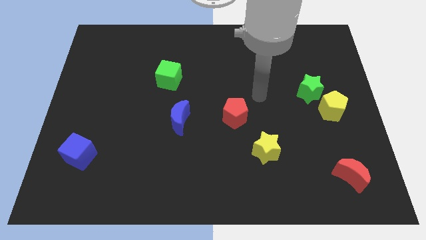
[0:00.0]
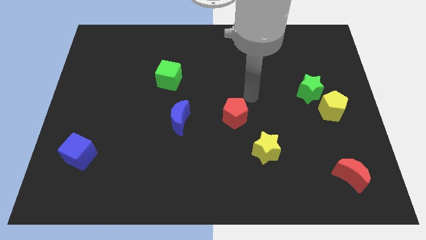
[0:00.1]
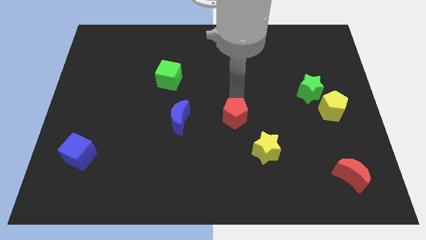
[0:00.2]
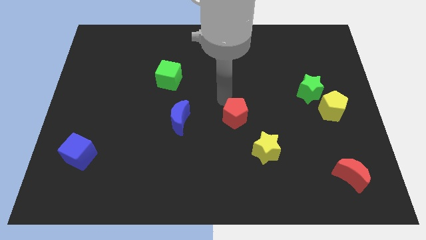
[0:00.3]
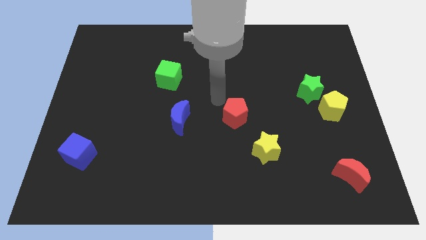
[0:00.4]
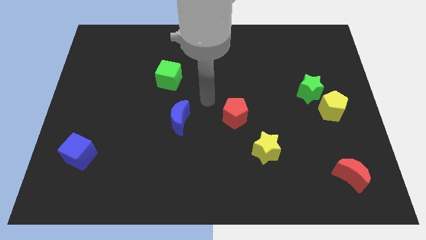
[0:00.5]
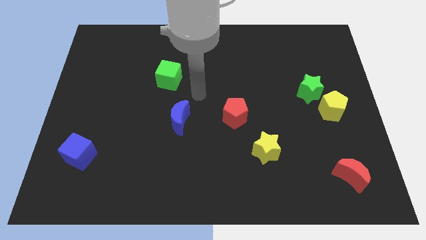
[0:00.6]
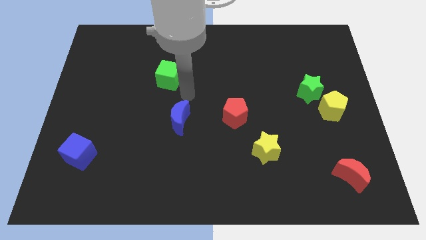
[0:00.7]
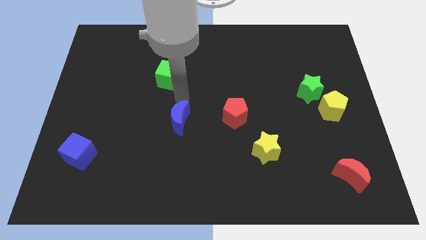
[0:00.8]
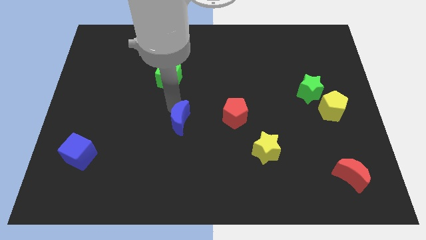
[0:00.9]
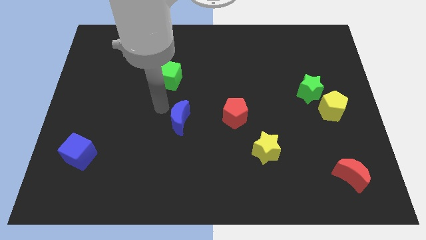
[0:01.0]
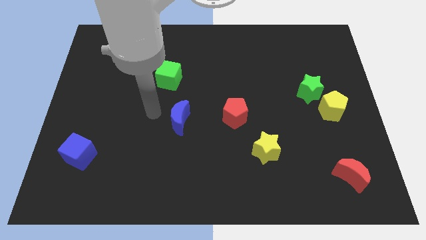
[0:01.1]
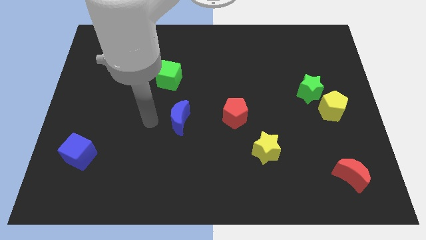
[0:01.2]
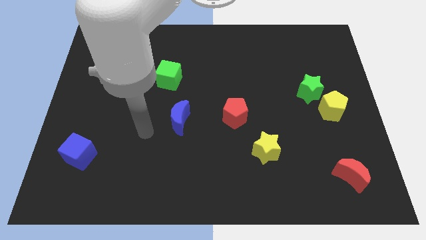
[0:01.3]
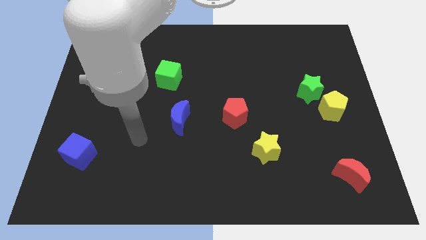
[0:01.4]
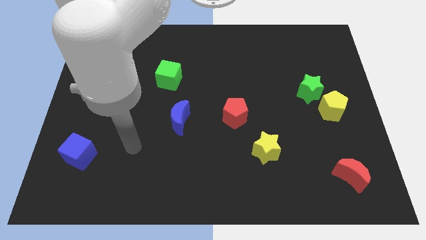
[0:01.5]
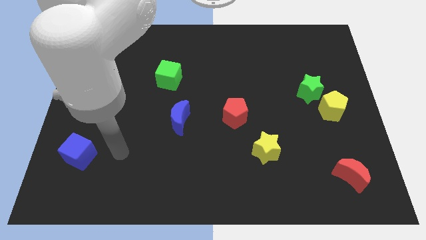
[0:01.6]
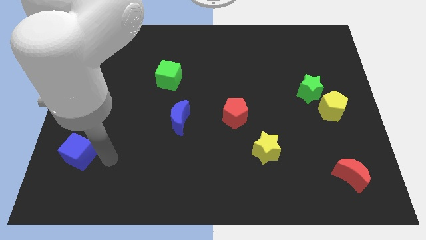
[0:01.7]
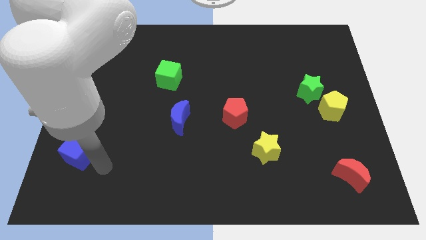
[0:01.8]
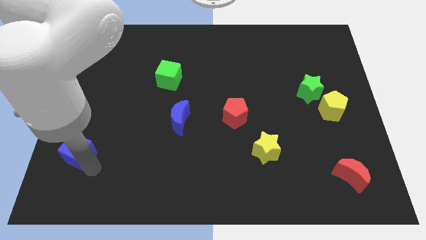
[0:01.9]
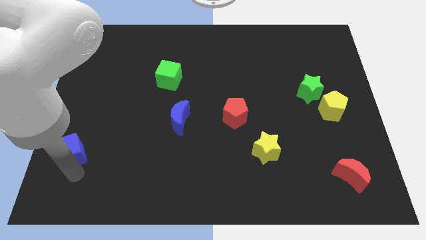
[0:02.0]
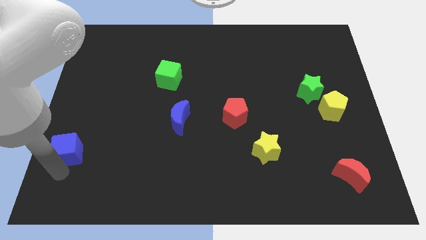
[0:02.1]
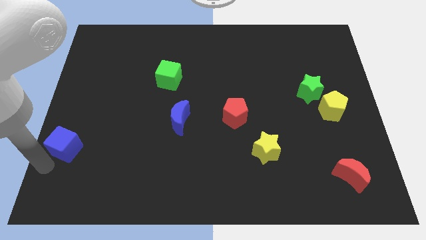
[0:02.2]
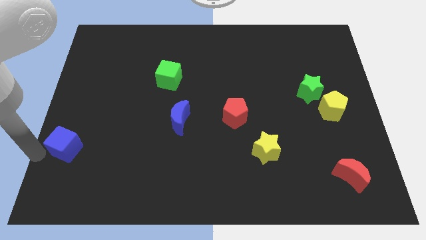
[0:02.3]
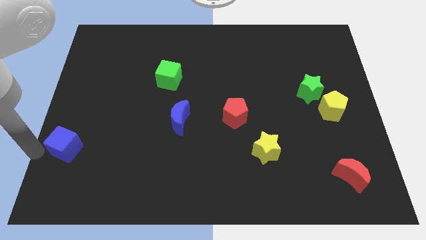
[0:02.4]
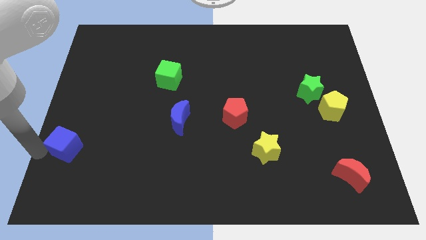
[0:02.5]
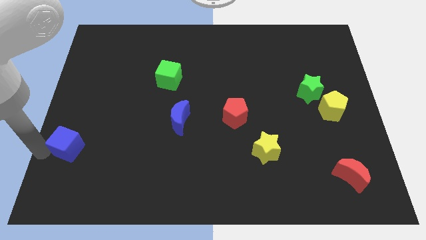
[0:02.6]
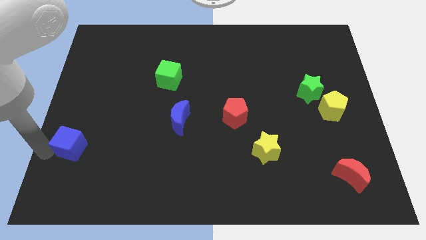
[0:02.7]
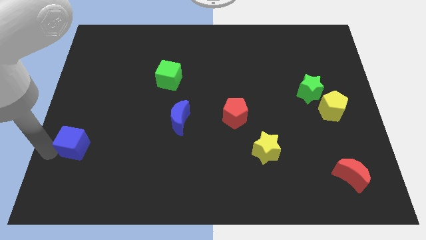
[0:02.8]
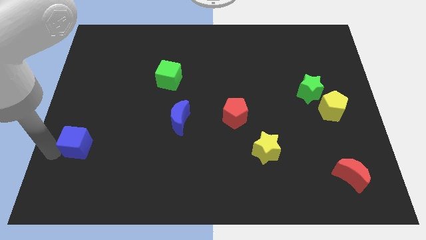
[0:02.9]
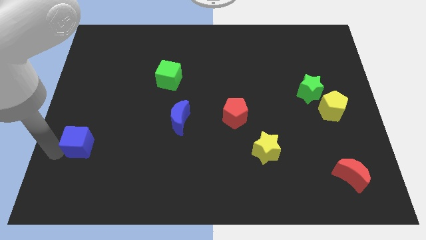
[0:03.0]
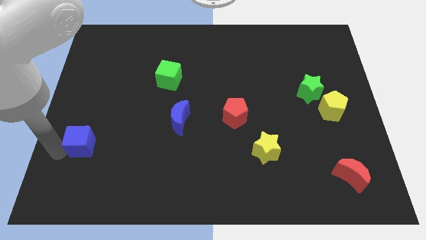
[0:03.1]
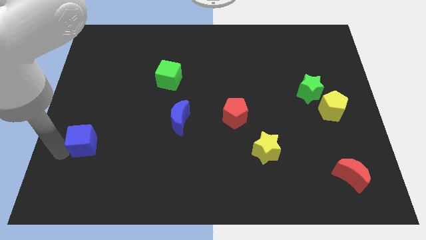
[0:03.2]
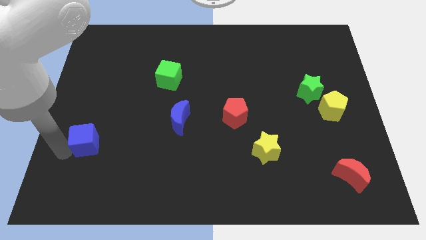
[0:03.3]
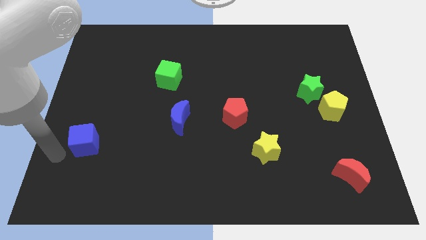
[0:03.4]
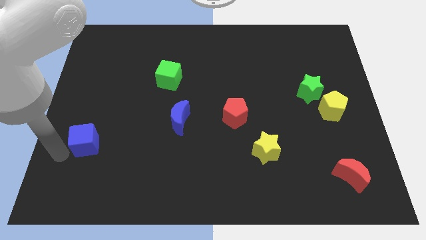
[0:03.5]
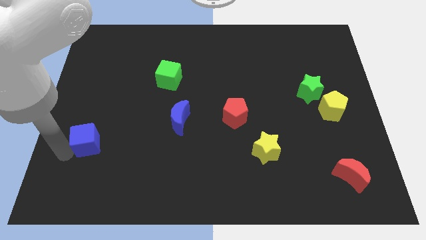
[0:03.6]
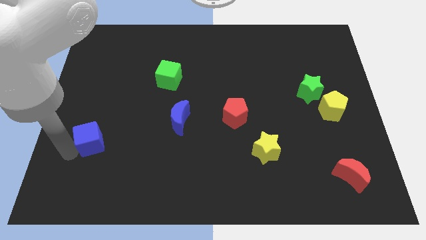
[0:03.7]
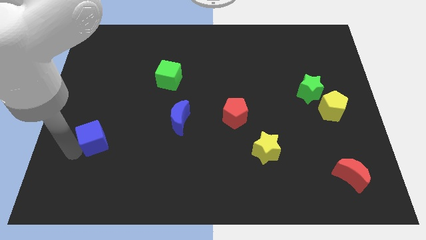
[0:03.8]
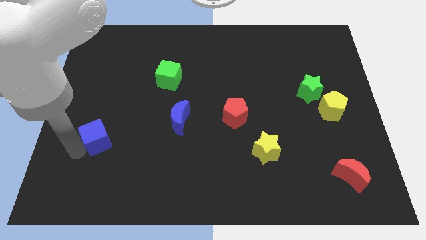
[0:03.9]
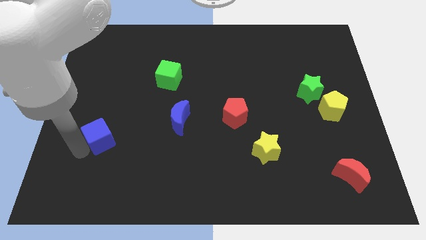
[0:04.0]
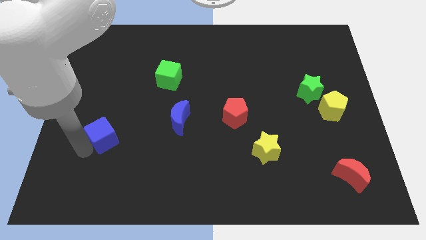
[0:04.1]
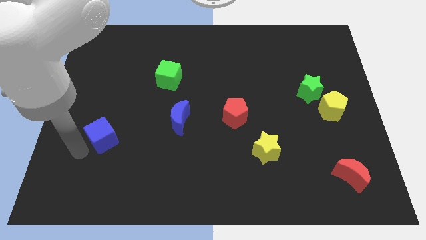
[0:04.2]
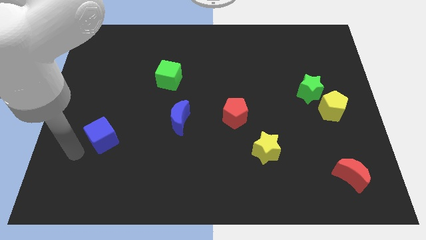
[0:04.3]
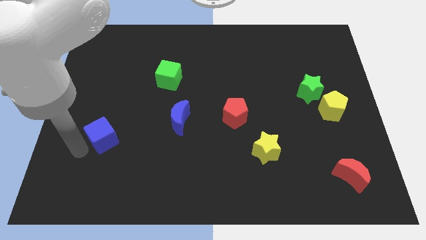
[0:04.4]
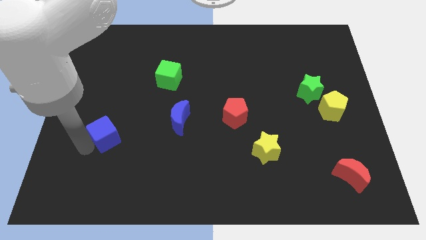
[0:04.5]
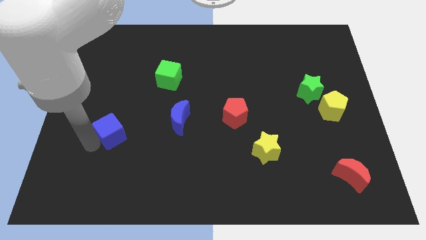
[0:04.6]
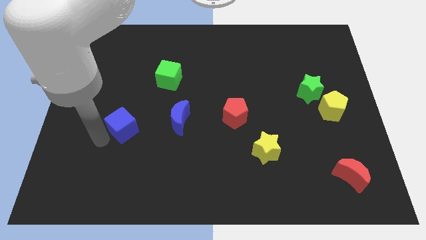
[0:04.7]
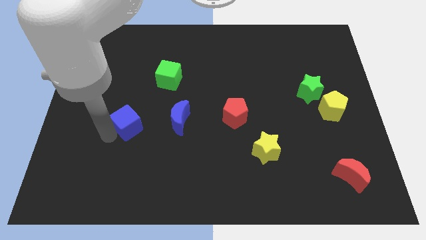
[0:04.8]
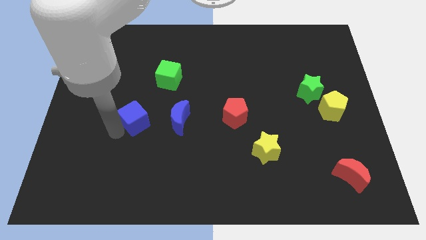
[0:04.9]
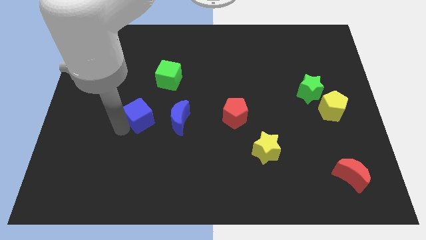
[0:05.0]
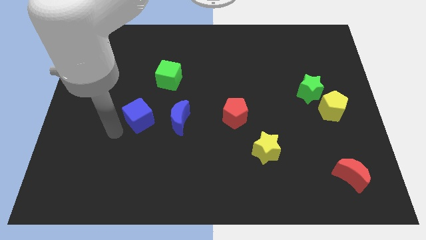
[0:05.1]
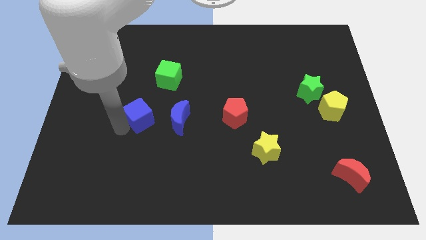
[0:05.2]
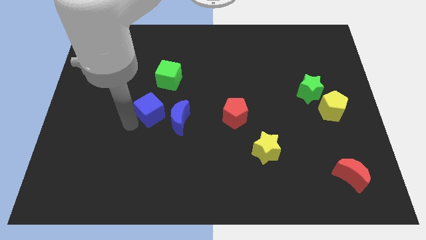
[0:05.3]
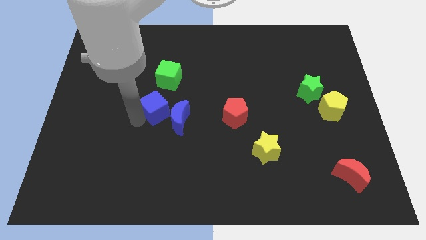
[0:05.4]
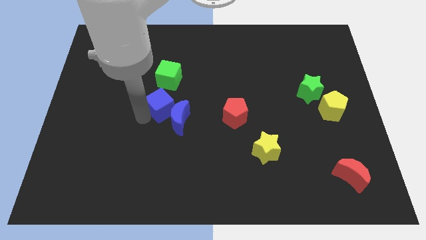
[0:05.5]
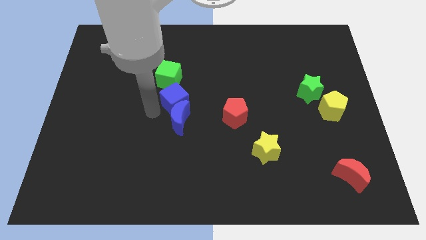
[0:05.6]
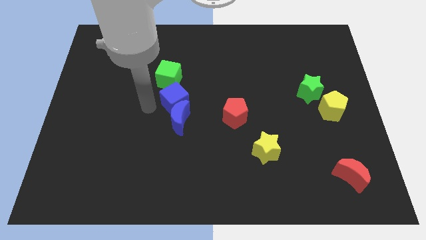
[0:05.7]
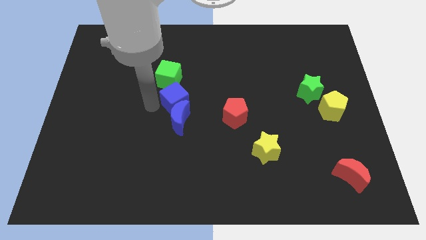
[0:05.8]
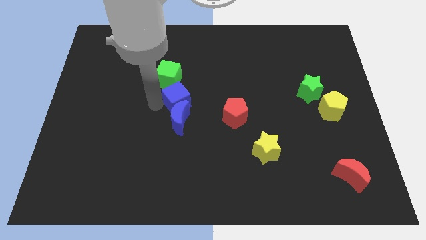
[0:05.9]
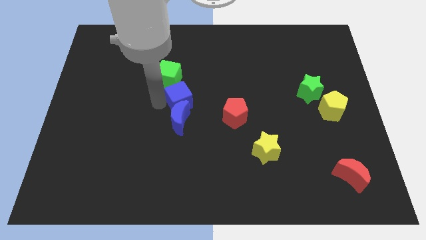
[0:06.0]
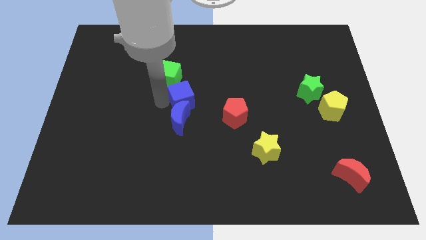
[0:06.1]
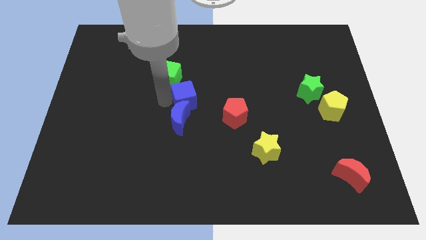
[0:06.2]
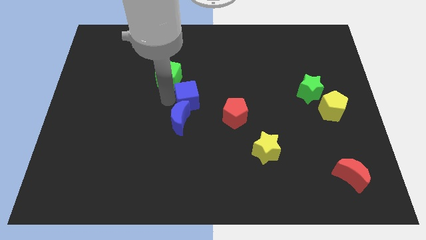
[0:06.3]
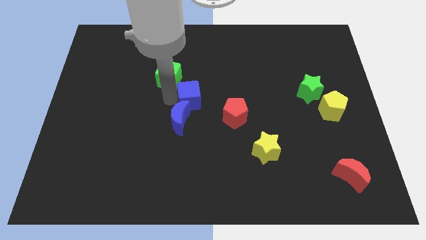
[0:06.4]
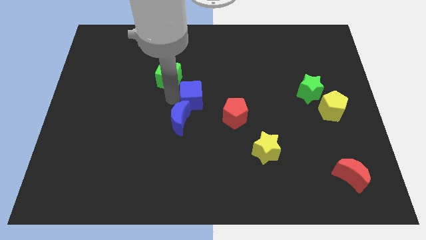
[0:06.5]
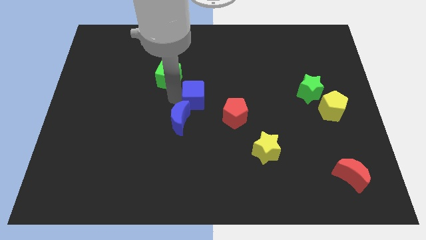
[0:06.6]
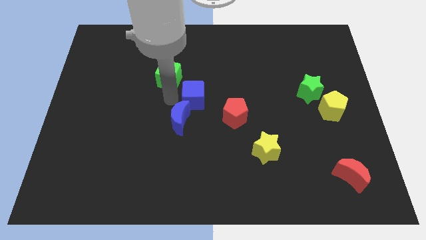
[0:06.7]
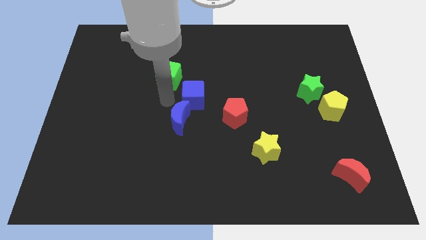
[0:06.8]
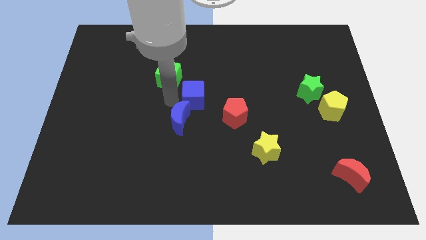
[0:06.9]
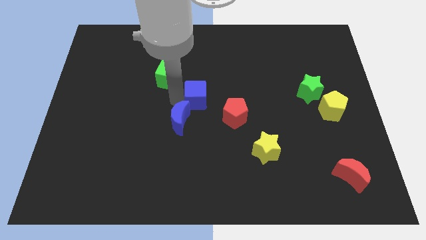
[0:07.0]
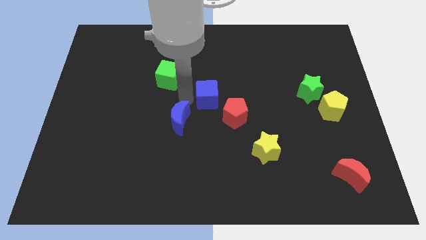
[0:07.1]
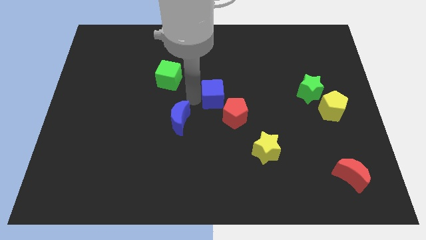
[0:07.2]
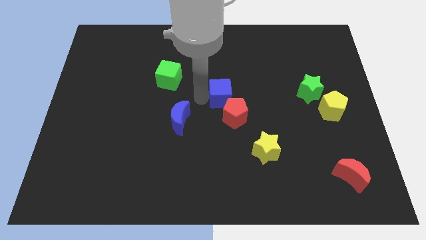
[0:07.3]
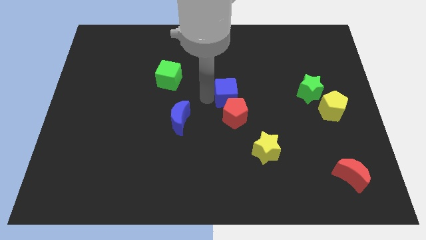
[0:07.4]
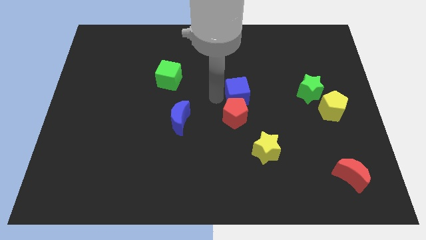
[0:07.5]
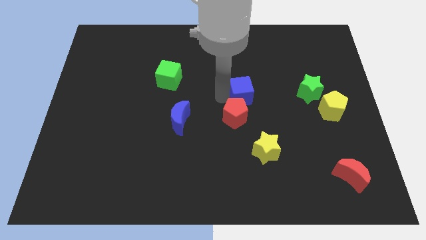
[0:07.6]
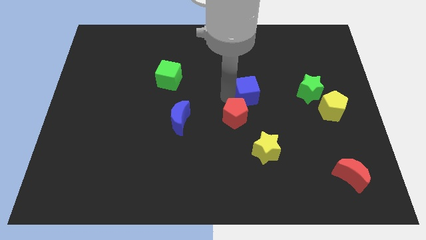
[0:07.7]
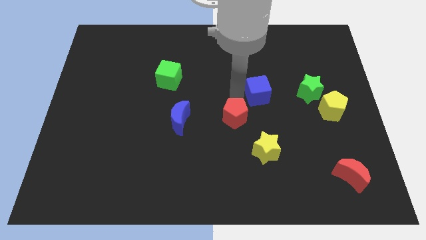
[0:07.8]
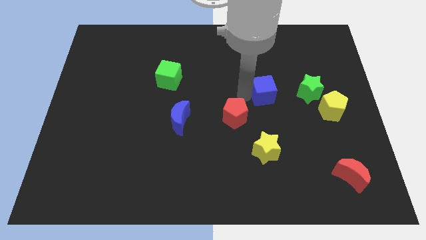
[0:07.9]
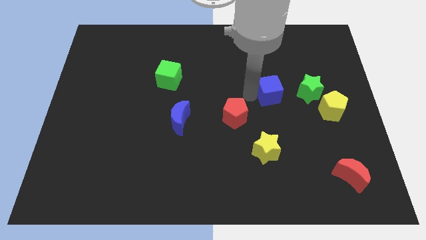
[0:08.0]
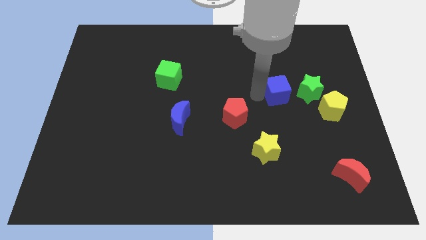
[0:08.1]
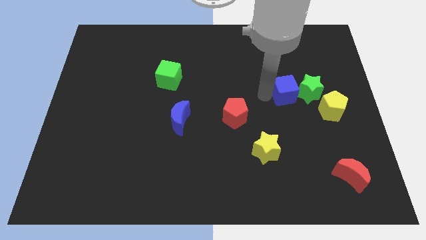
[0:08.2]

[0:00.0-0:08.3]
put the blue cube towards the green star
